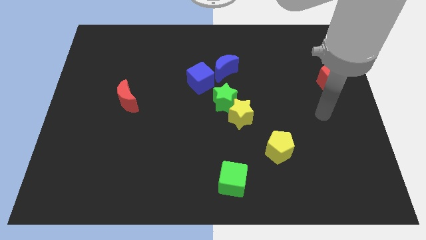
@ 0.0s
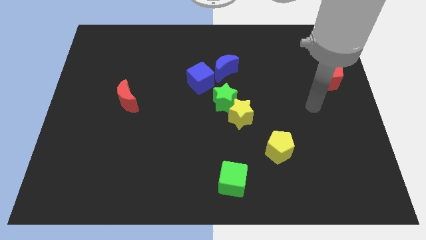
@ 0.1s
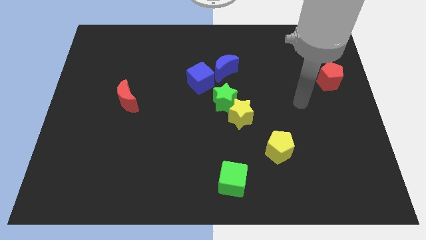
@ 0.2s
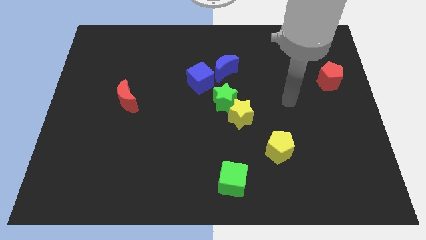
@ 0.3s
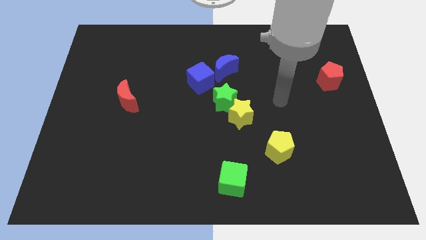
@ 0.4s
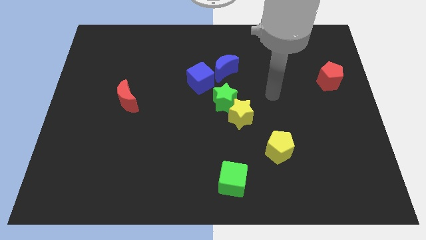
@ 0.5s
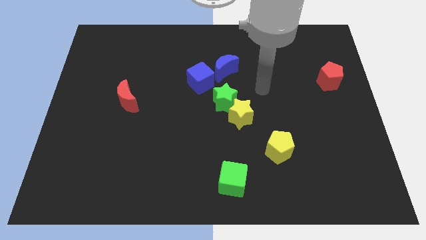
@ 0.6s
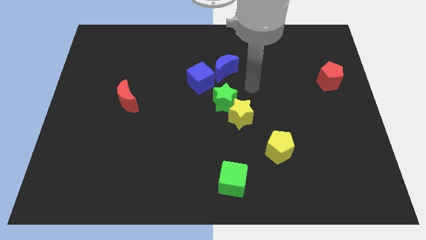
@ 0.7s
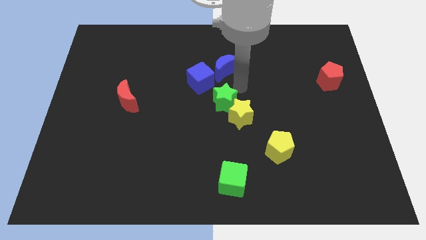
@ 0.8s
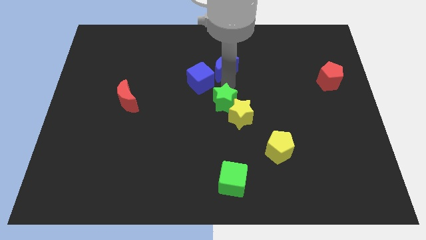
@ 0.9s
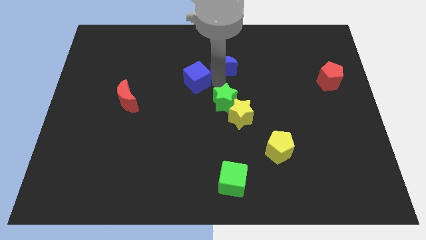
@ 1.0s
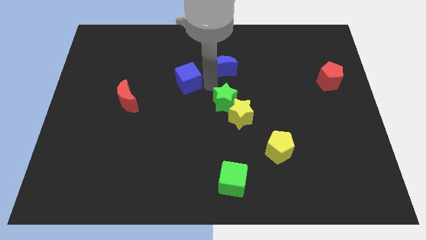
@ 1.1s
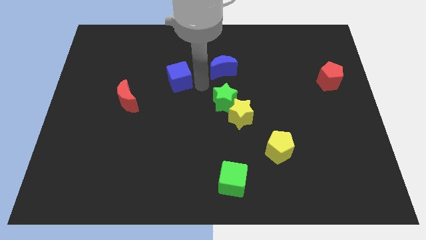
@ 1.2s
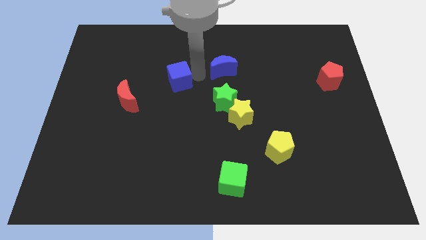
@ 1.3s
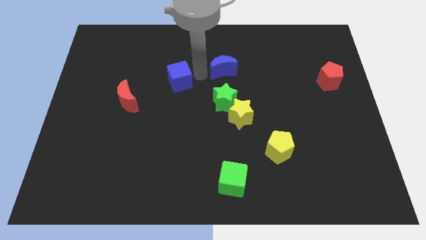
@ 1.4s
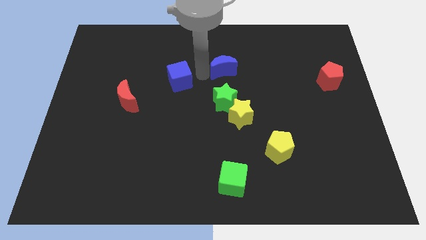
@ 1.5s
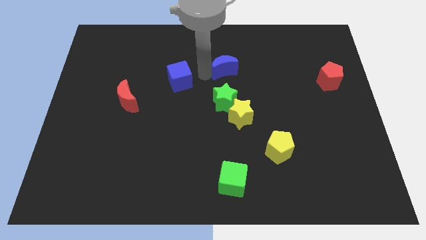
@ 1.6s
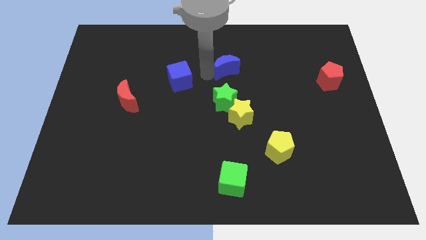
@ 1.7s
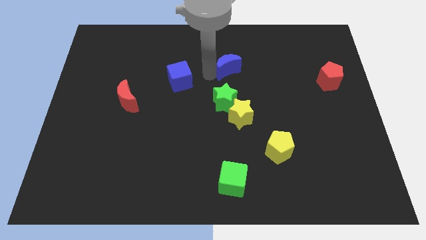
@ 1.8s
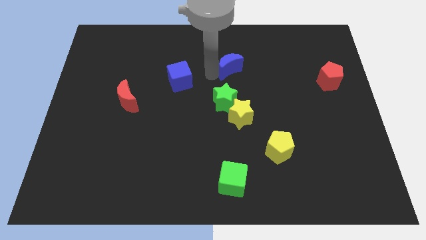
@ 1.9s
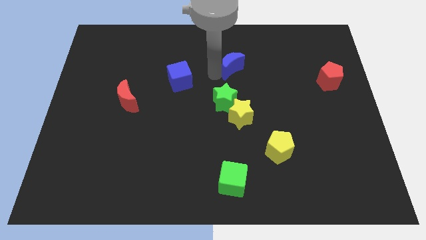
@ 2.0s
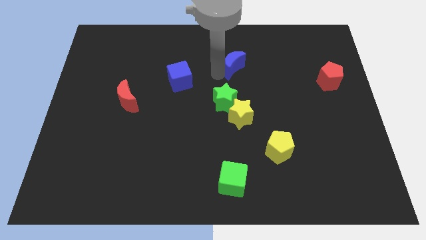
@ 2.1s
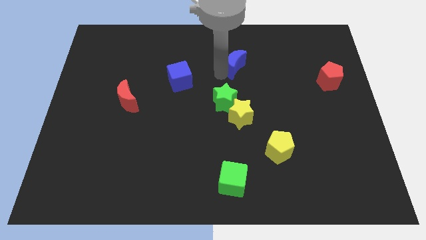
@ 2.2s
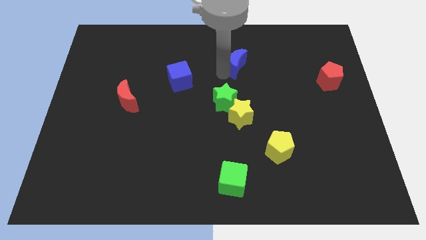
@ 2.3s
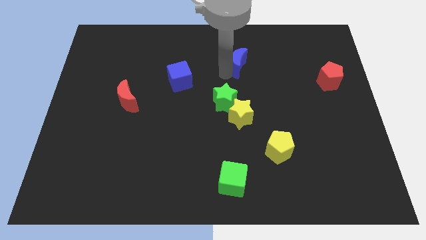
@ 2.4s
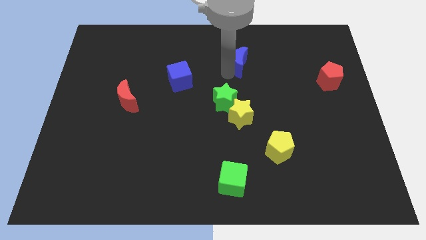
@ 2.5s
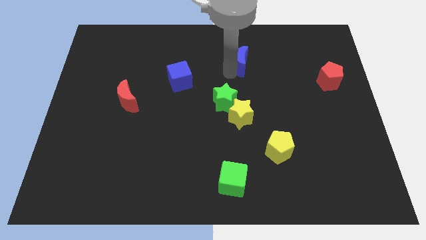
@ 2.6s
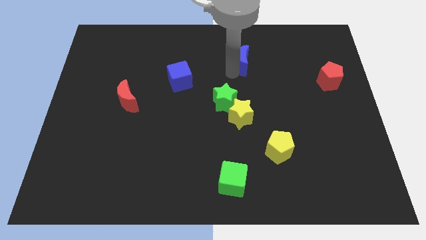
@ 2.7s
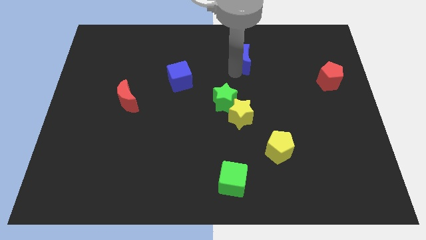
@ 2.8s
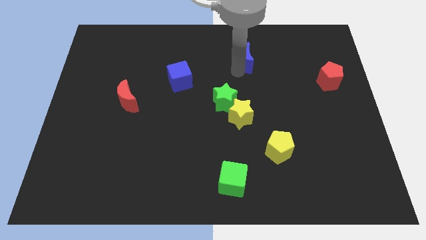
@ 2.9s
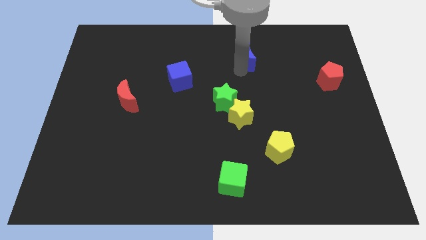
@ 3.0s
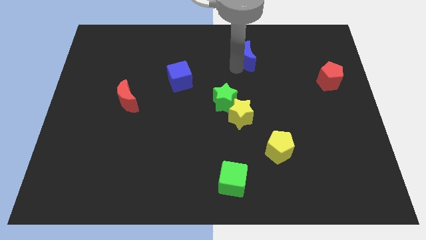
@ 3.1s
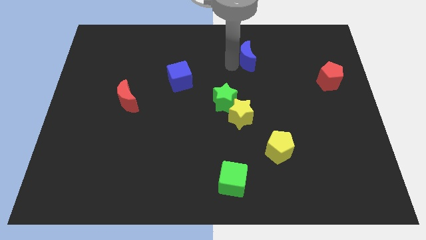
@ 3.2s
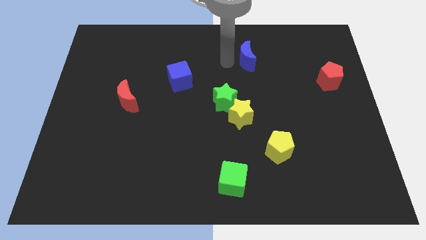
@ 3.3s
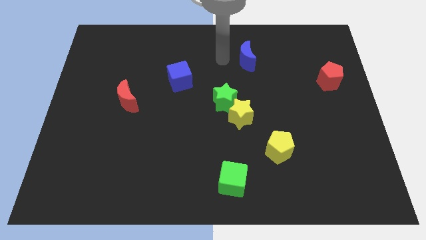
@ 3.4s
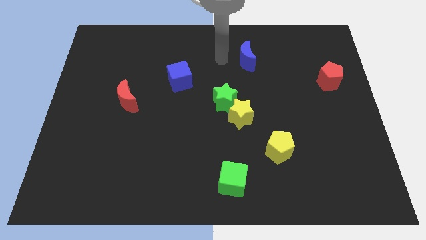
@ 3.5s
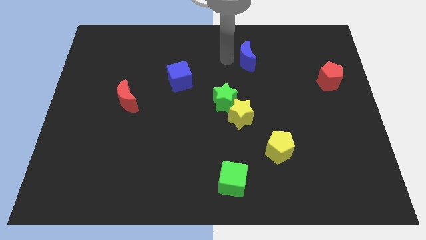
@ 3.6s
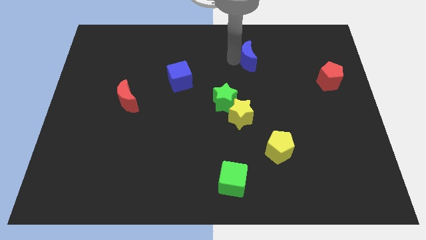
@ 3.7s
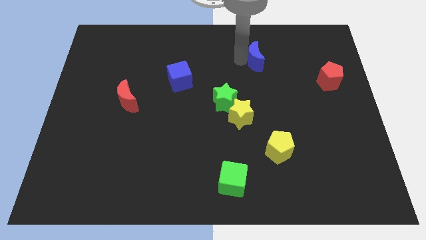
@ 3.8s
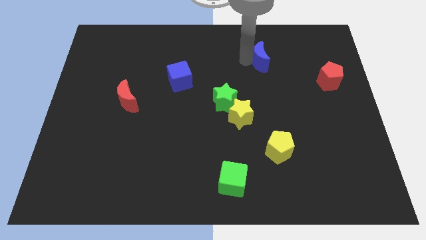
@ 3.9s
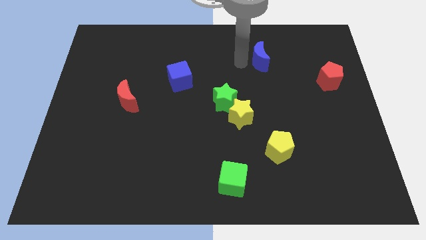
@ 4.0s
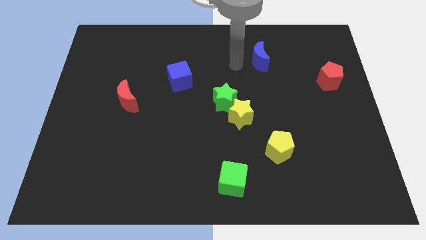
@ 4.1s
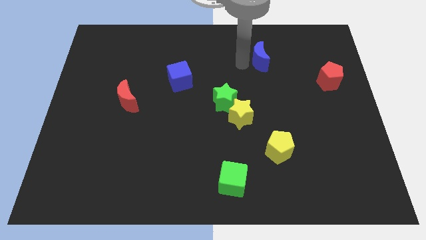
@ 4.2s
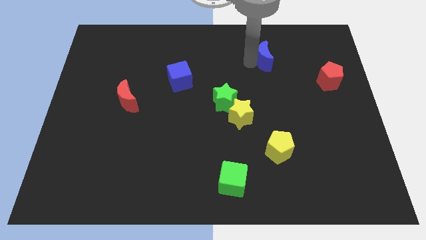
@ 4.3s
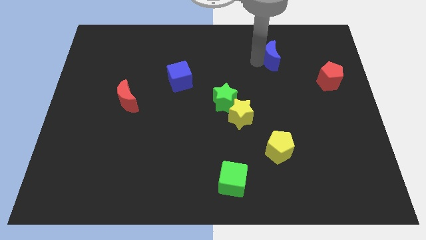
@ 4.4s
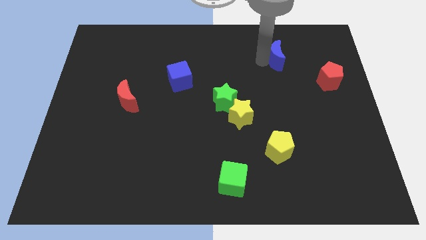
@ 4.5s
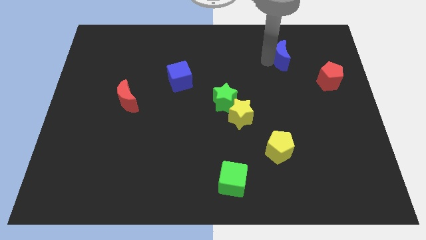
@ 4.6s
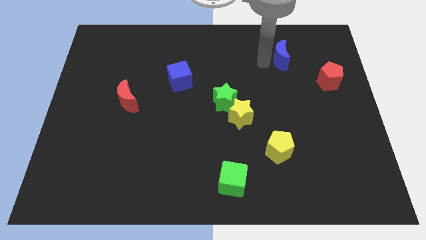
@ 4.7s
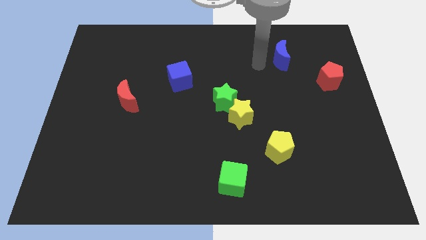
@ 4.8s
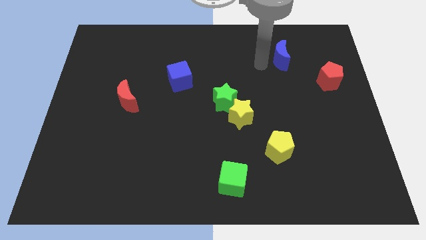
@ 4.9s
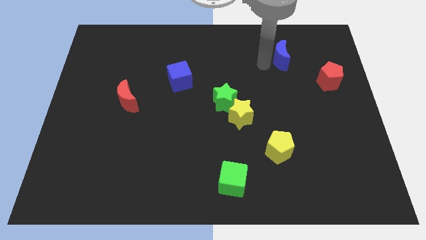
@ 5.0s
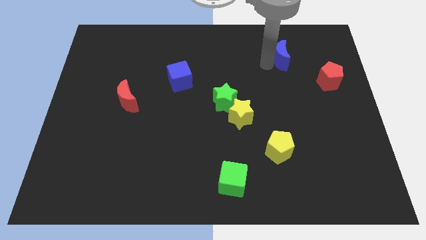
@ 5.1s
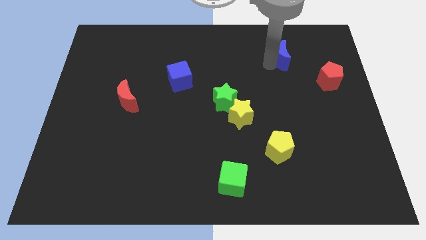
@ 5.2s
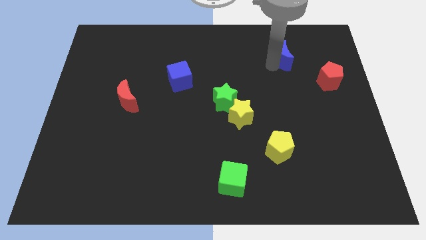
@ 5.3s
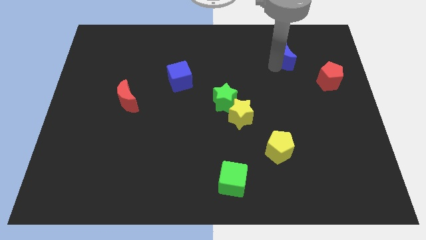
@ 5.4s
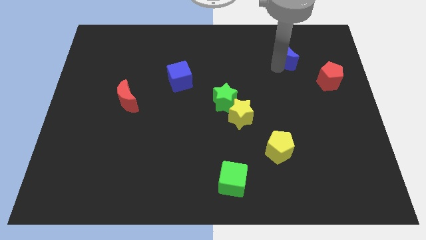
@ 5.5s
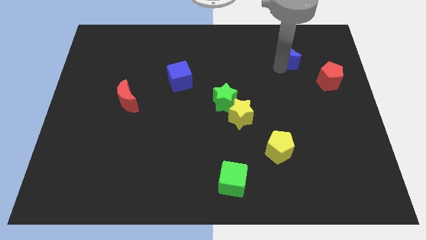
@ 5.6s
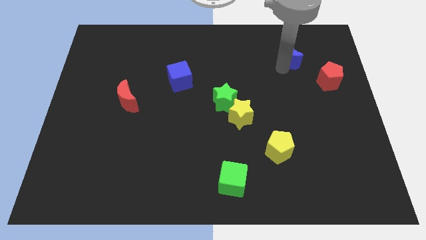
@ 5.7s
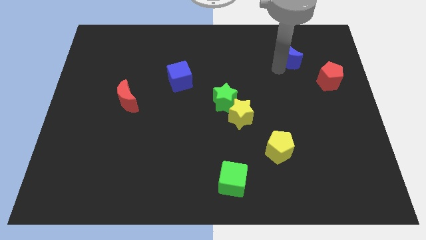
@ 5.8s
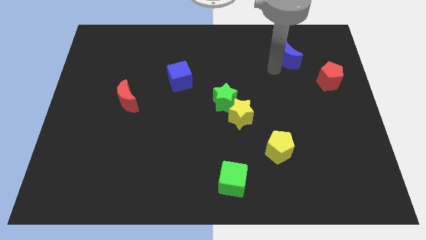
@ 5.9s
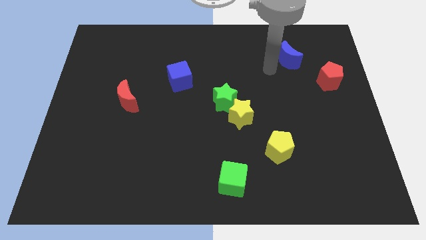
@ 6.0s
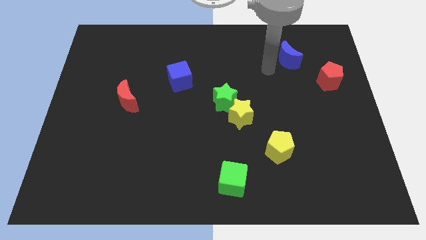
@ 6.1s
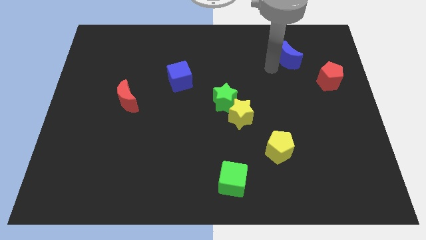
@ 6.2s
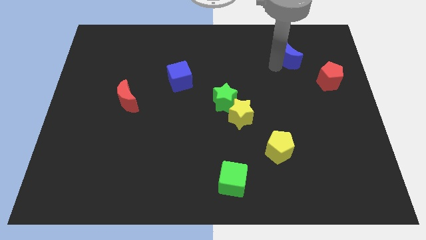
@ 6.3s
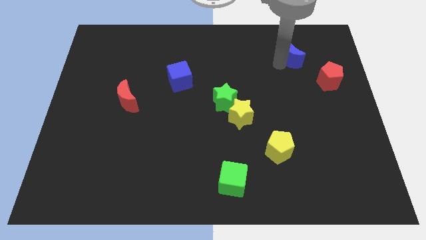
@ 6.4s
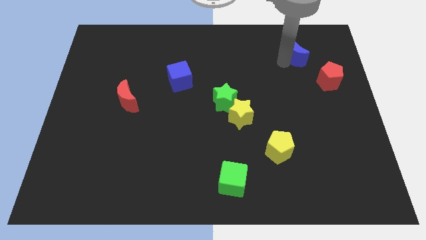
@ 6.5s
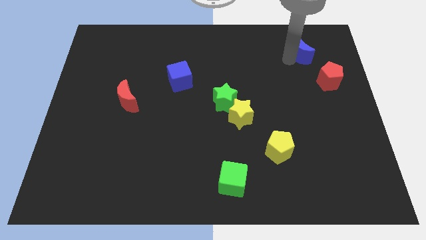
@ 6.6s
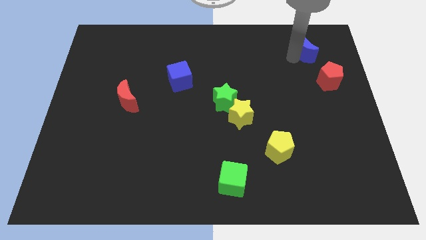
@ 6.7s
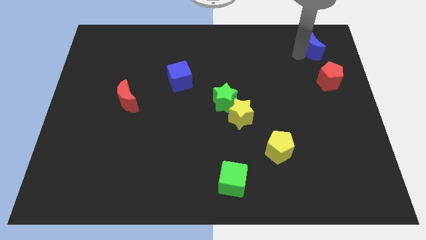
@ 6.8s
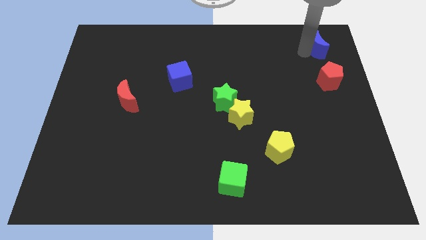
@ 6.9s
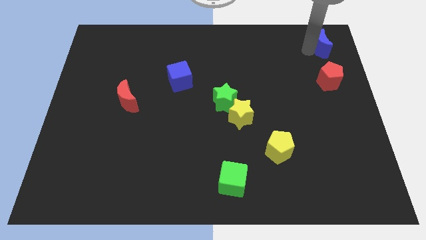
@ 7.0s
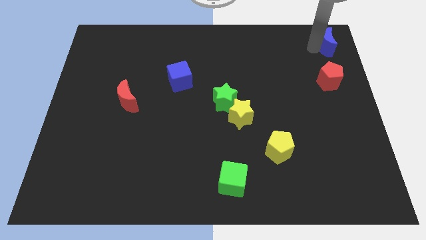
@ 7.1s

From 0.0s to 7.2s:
push the blue moon to the top right

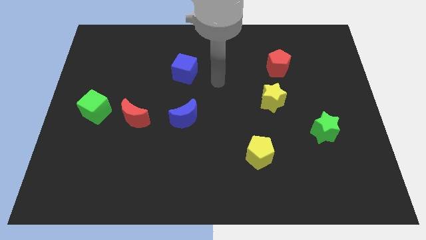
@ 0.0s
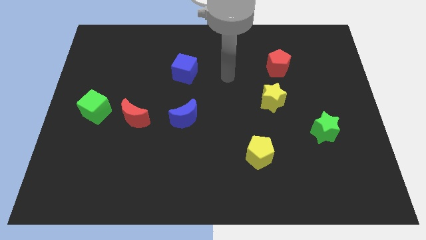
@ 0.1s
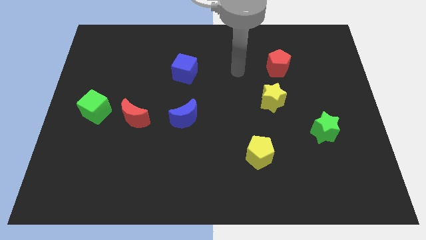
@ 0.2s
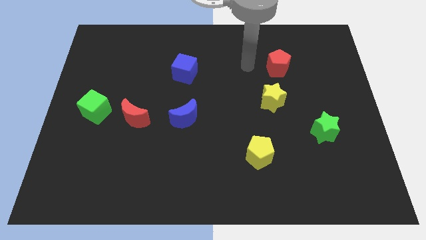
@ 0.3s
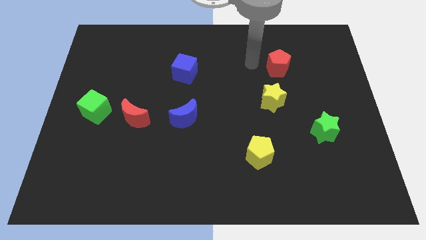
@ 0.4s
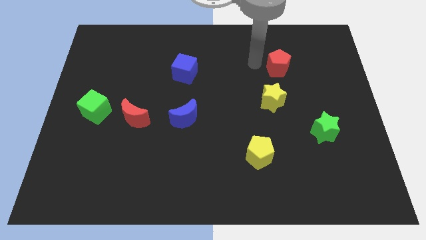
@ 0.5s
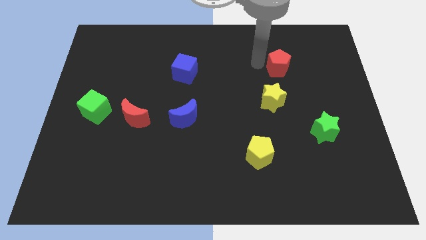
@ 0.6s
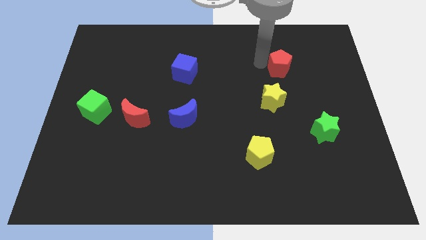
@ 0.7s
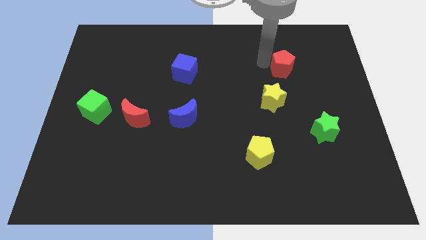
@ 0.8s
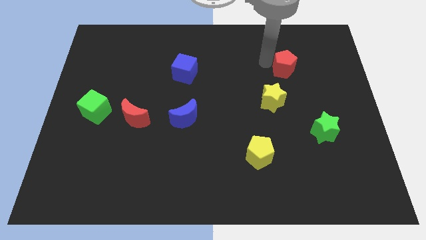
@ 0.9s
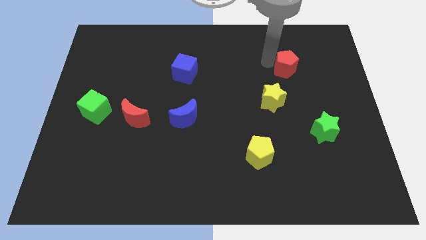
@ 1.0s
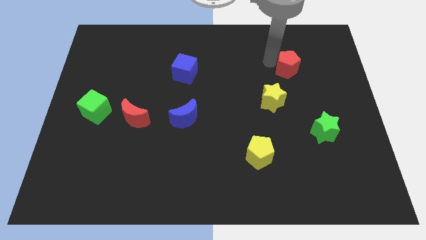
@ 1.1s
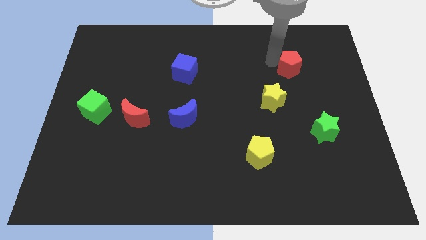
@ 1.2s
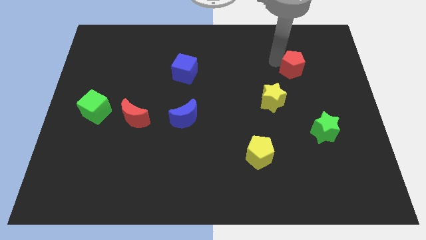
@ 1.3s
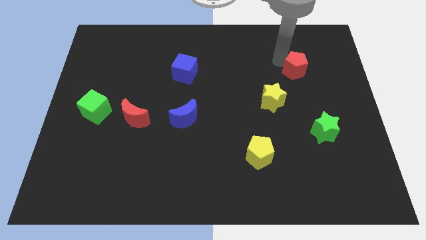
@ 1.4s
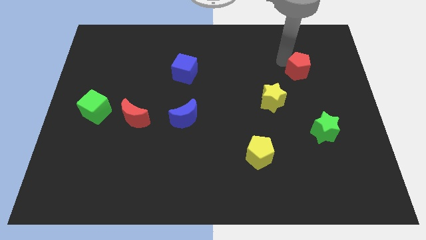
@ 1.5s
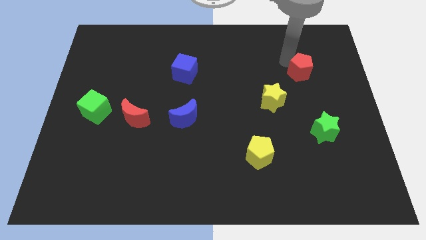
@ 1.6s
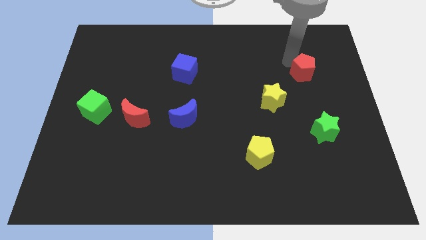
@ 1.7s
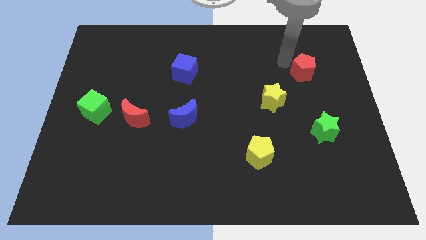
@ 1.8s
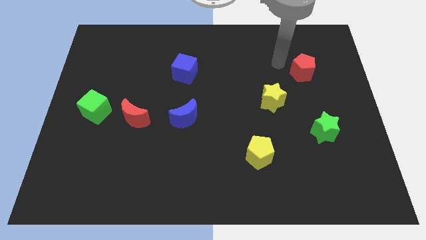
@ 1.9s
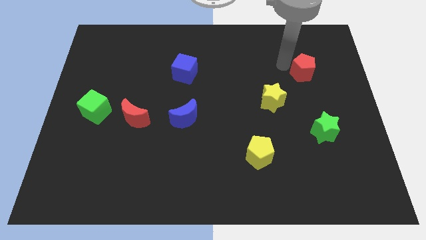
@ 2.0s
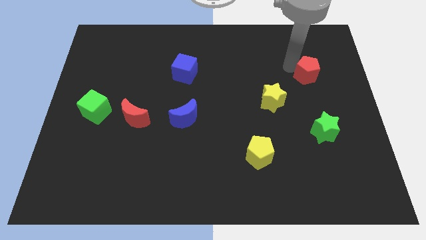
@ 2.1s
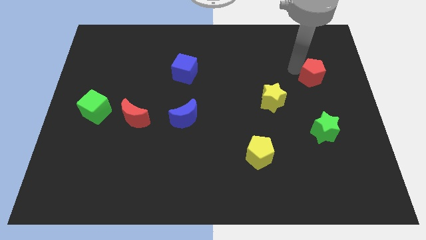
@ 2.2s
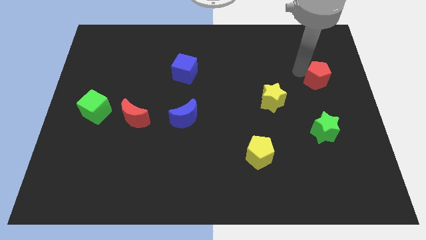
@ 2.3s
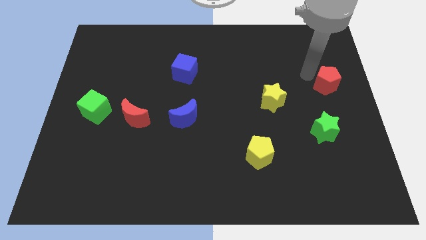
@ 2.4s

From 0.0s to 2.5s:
slide the red pentagon to the center right
